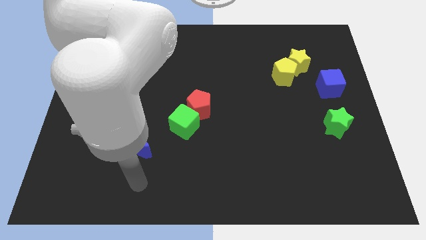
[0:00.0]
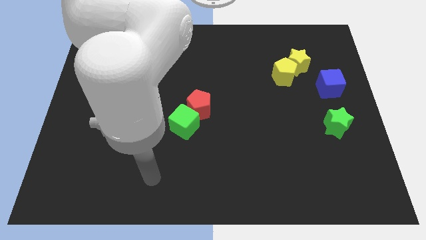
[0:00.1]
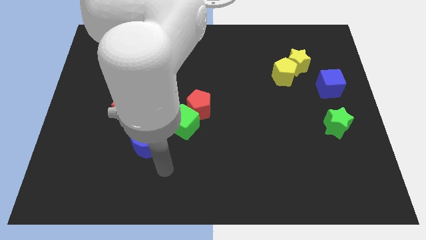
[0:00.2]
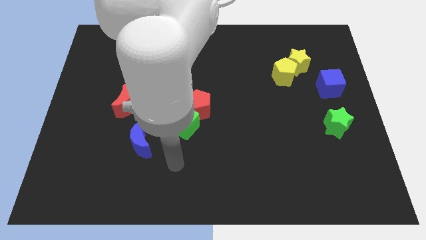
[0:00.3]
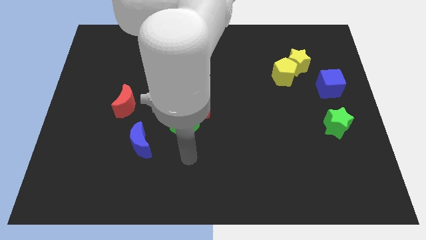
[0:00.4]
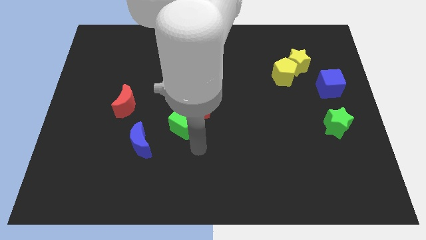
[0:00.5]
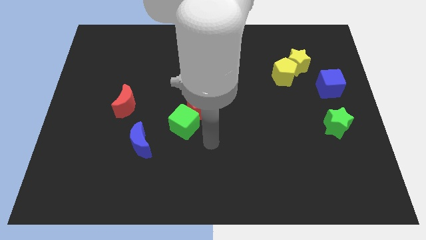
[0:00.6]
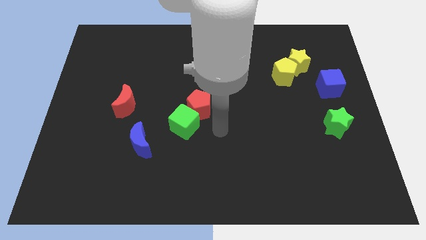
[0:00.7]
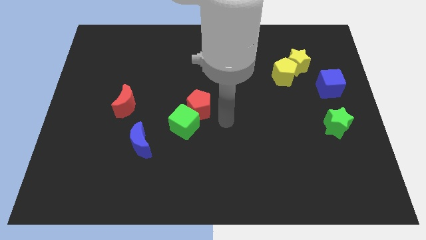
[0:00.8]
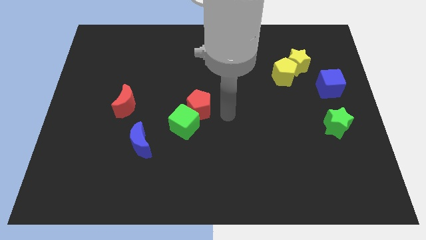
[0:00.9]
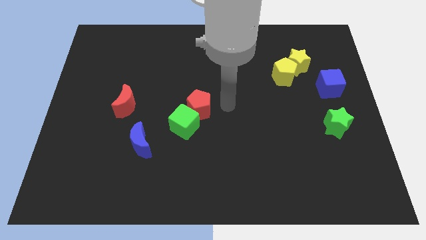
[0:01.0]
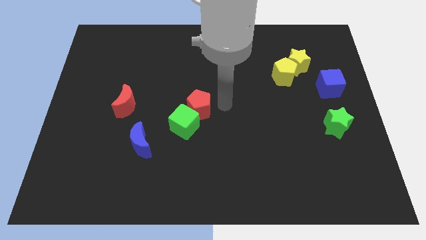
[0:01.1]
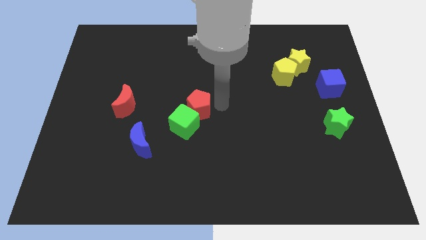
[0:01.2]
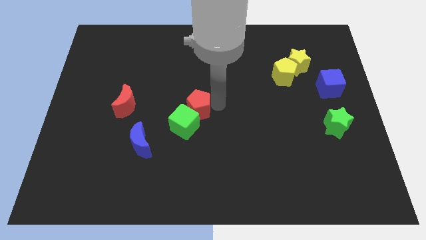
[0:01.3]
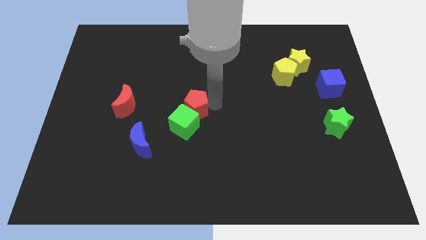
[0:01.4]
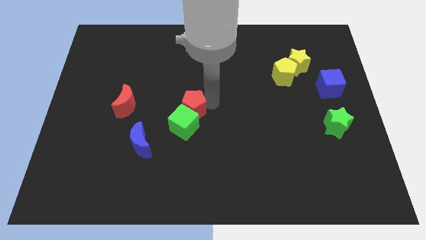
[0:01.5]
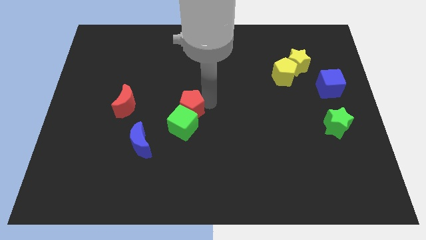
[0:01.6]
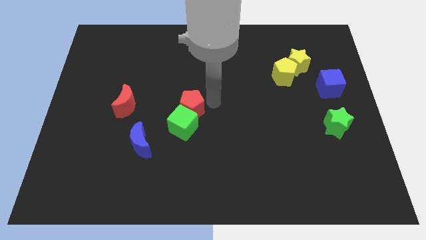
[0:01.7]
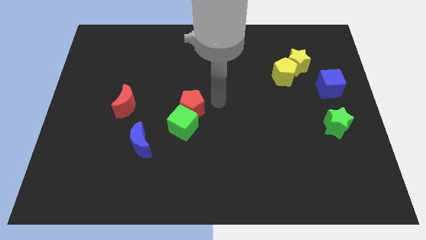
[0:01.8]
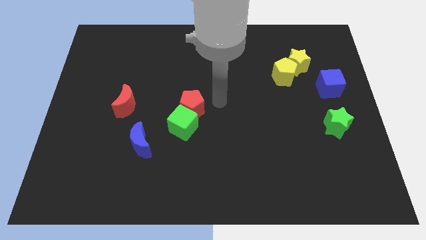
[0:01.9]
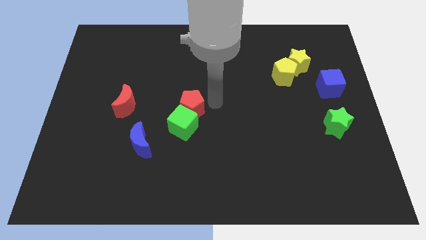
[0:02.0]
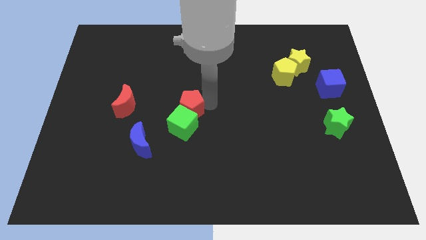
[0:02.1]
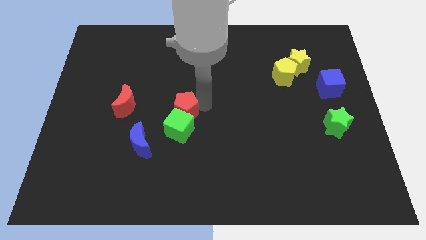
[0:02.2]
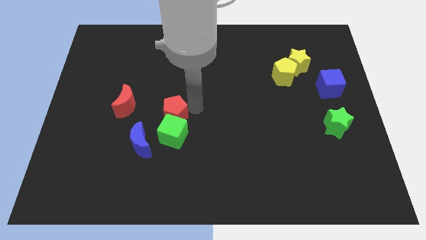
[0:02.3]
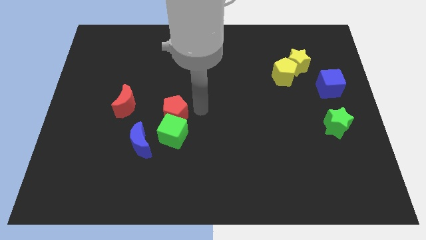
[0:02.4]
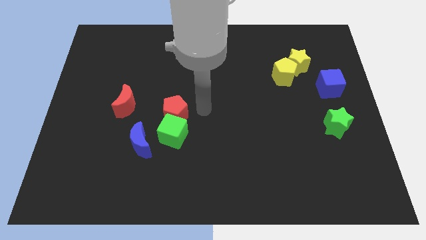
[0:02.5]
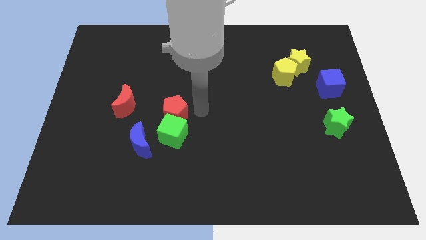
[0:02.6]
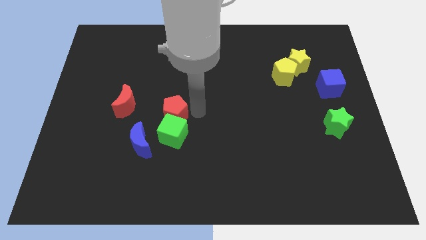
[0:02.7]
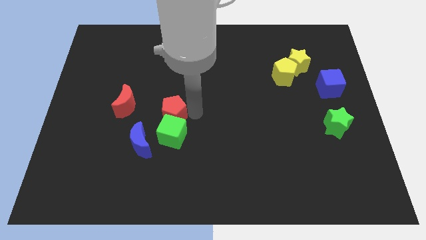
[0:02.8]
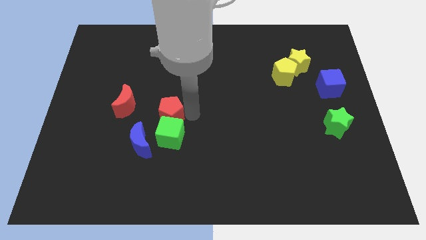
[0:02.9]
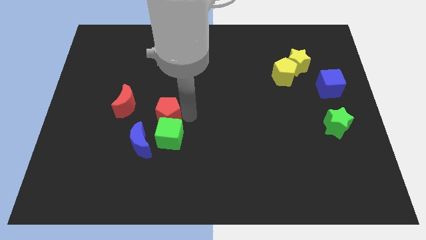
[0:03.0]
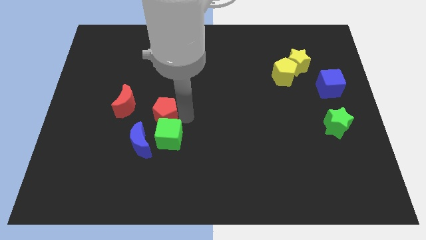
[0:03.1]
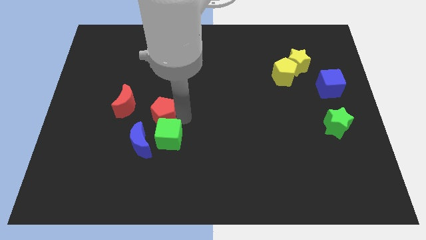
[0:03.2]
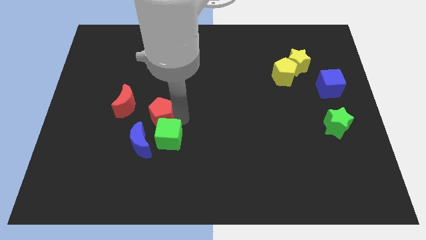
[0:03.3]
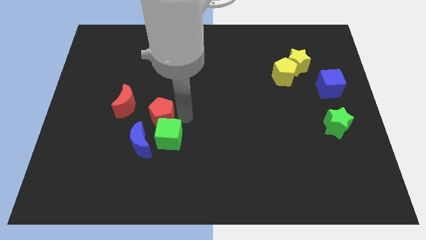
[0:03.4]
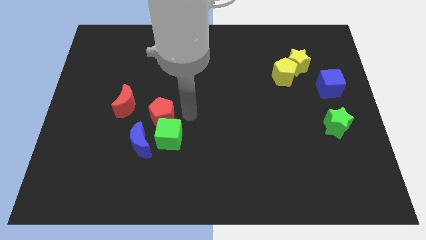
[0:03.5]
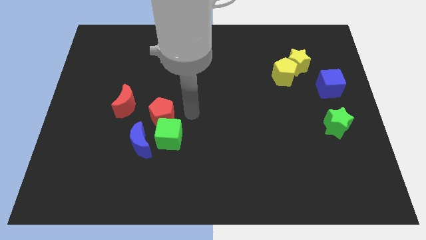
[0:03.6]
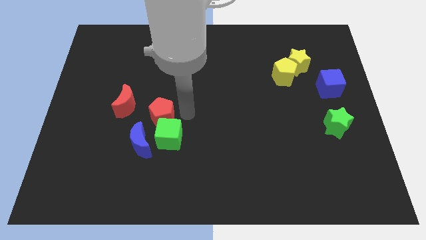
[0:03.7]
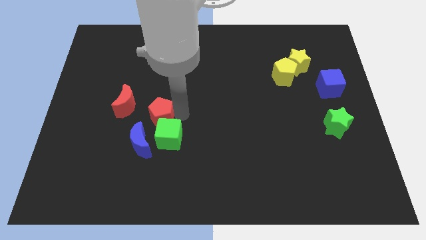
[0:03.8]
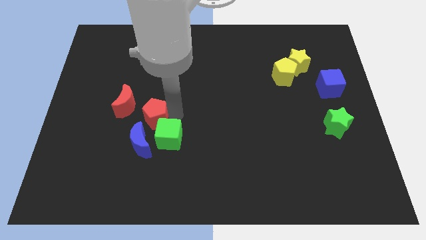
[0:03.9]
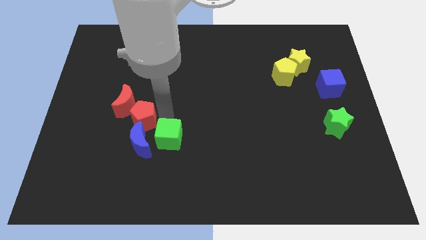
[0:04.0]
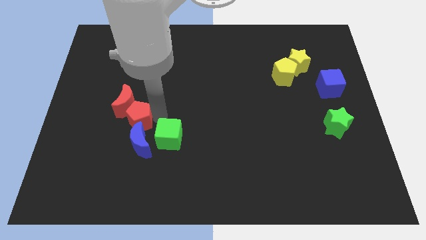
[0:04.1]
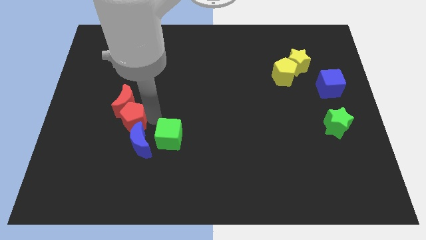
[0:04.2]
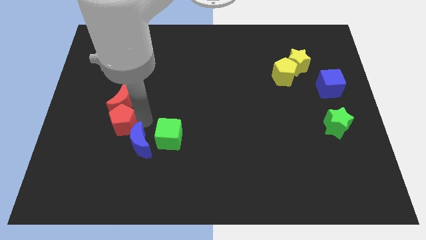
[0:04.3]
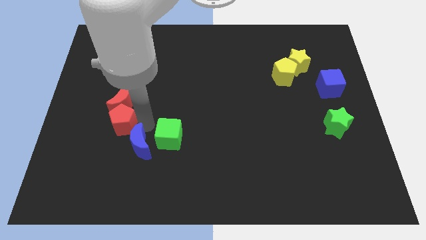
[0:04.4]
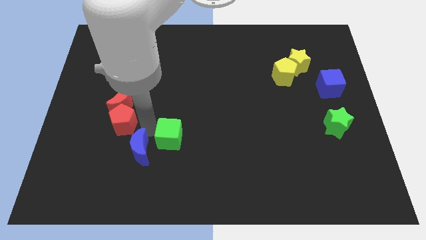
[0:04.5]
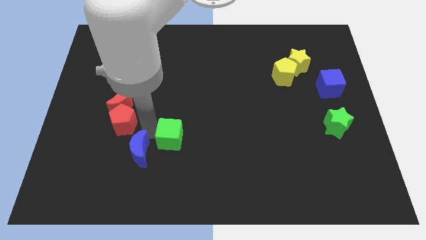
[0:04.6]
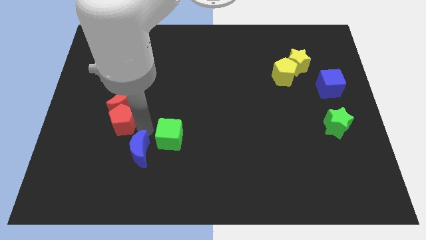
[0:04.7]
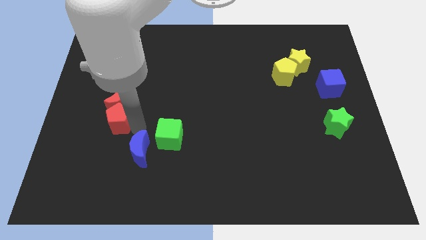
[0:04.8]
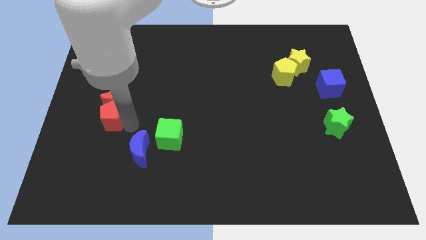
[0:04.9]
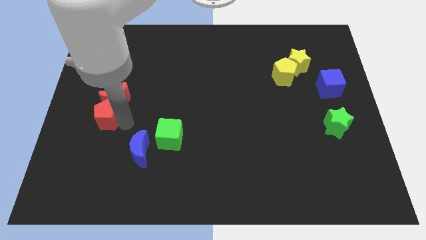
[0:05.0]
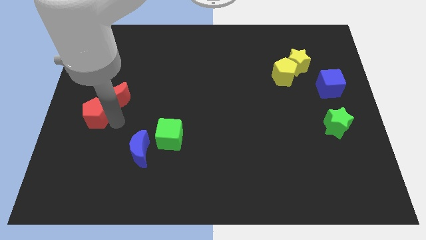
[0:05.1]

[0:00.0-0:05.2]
move the red pentagon to the left side of the board

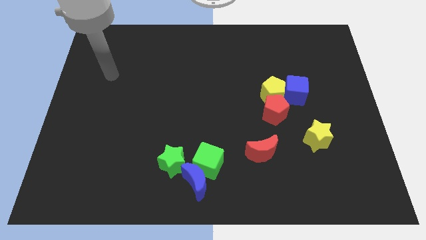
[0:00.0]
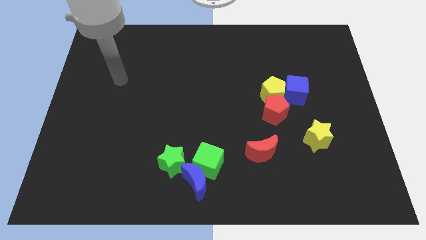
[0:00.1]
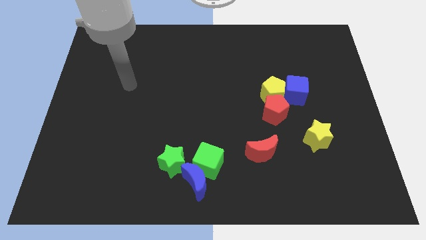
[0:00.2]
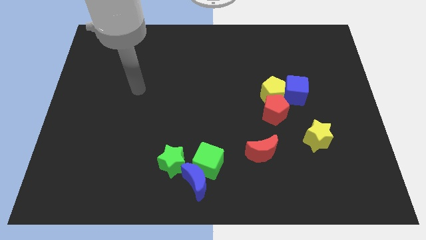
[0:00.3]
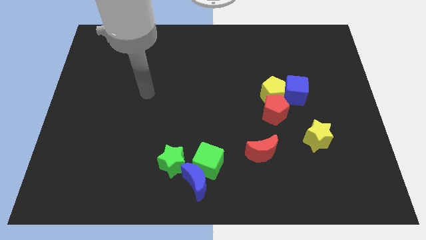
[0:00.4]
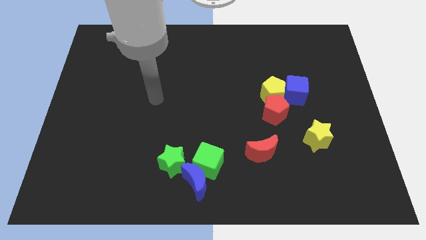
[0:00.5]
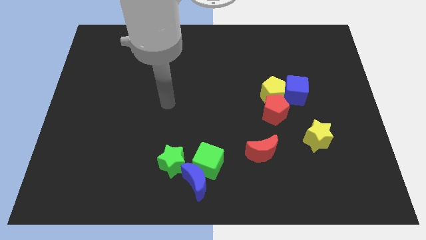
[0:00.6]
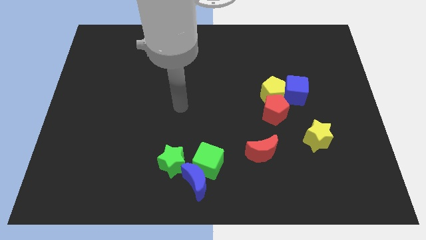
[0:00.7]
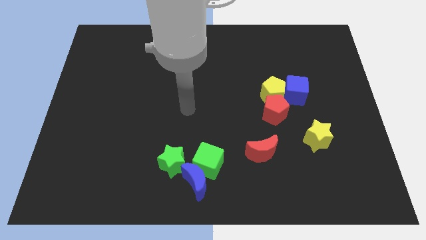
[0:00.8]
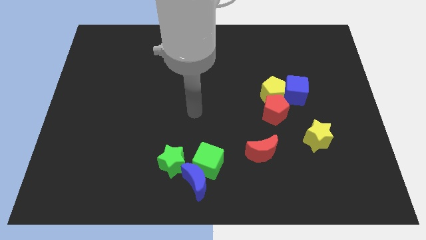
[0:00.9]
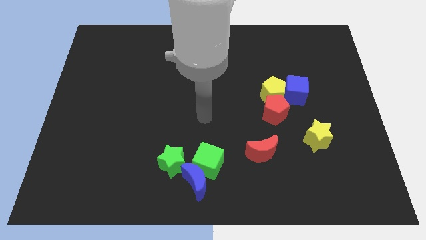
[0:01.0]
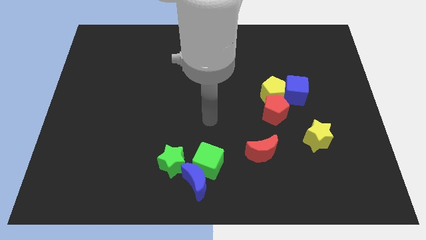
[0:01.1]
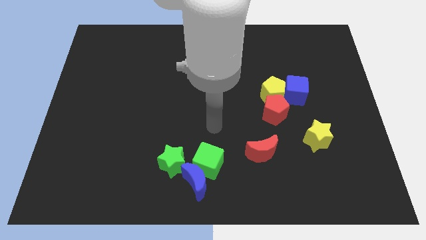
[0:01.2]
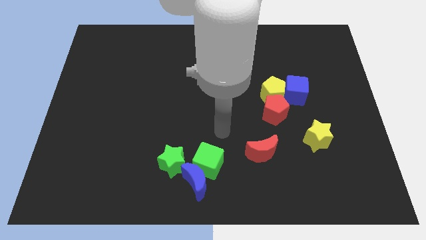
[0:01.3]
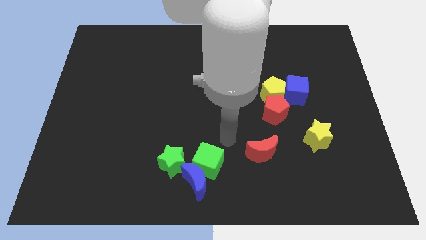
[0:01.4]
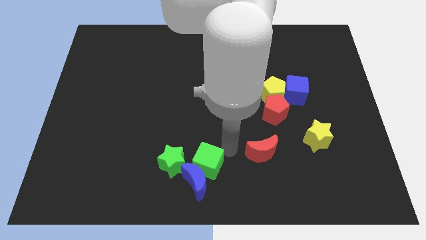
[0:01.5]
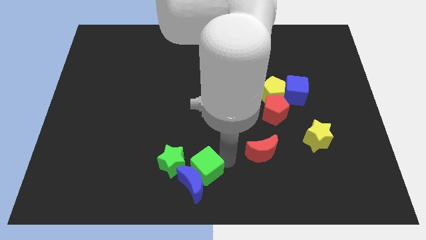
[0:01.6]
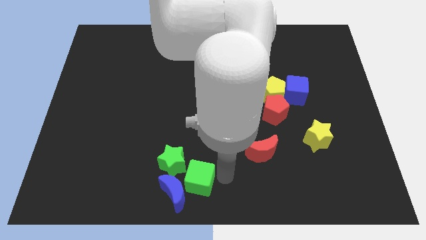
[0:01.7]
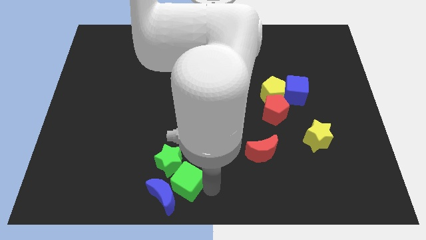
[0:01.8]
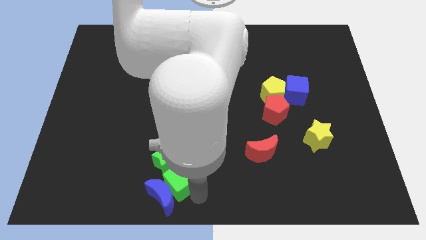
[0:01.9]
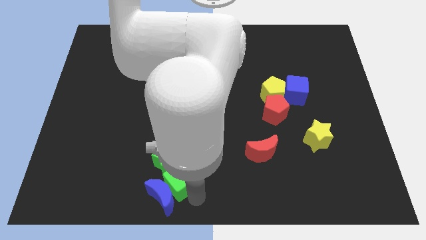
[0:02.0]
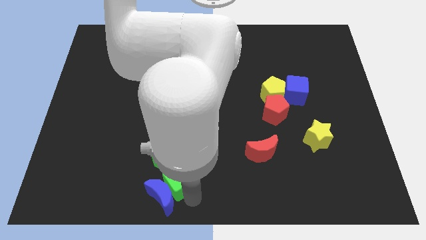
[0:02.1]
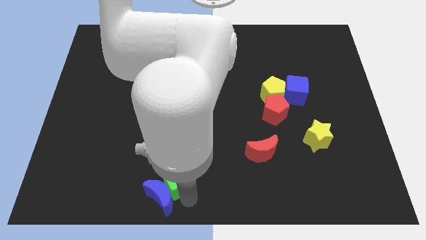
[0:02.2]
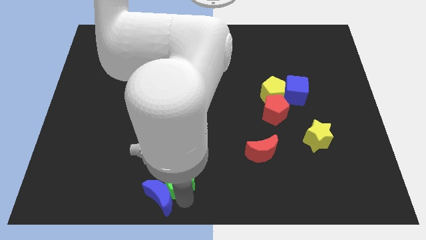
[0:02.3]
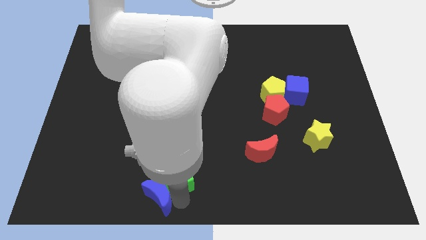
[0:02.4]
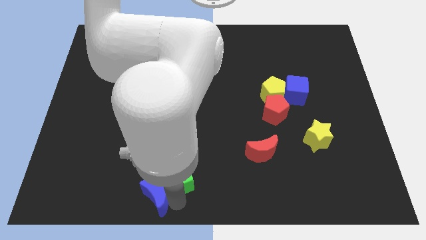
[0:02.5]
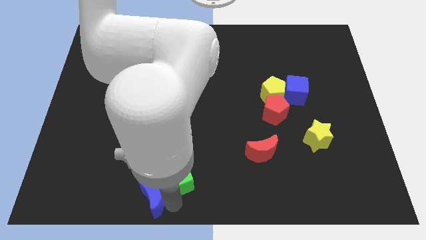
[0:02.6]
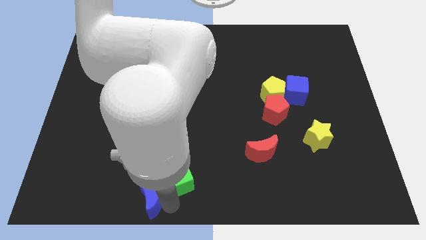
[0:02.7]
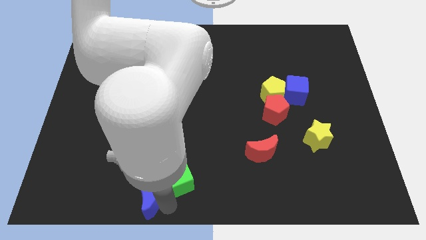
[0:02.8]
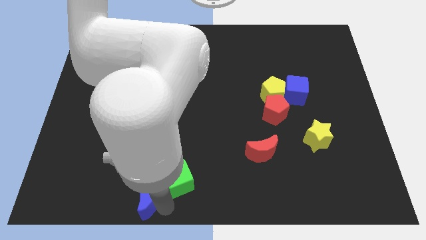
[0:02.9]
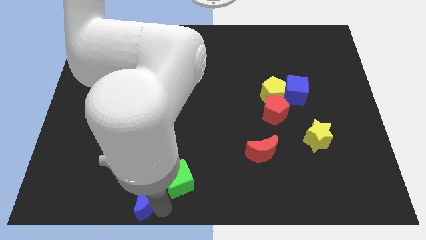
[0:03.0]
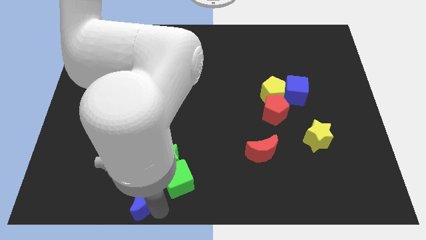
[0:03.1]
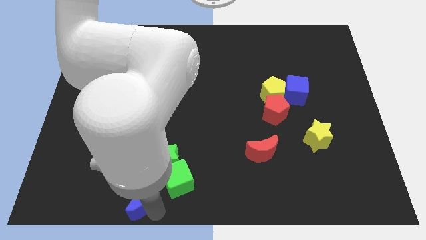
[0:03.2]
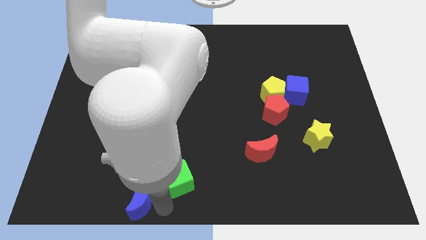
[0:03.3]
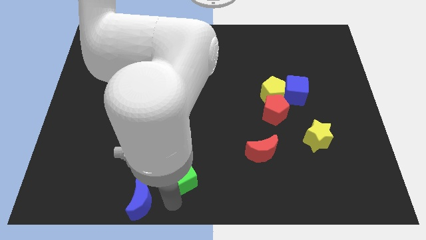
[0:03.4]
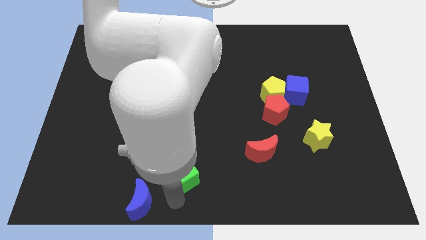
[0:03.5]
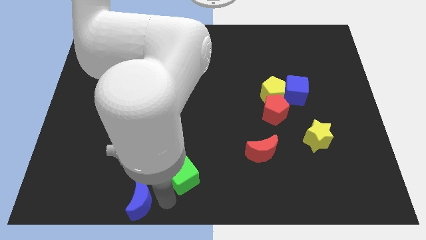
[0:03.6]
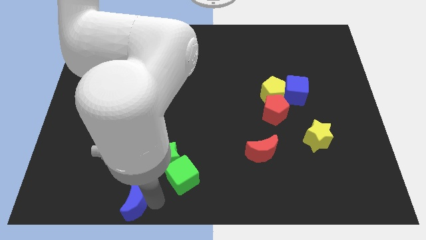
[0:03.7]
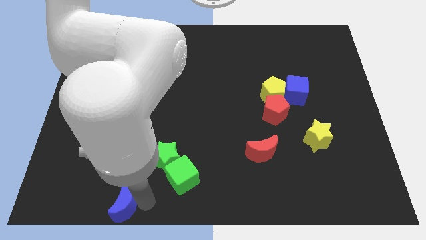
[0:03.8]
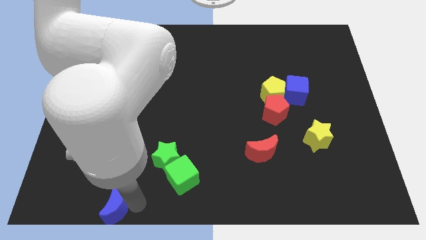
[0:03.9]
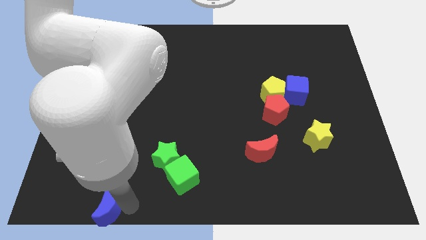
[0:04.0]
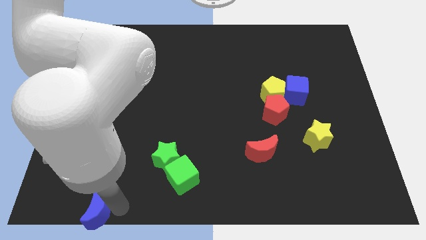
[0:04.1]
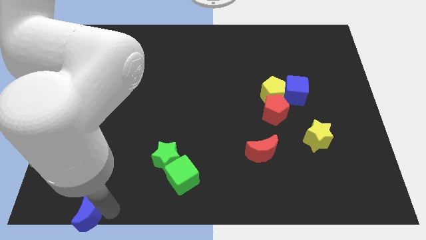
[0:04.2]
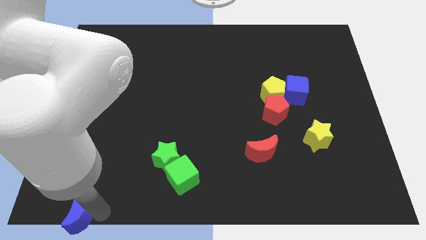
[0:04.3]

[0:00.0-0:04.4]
push the blue moon to the lower left corner
